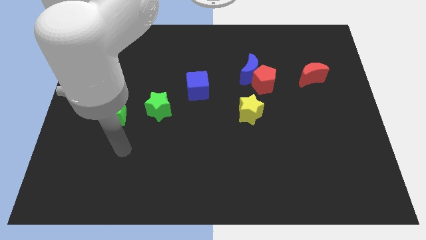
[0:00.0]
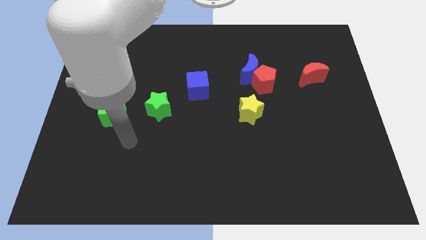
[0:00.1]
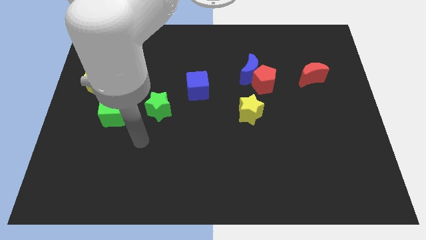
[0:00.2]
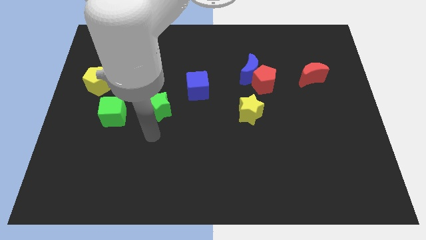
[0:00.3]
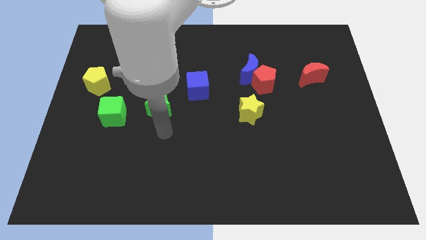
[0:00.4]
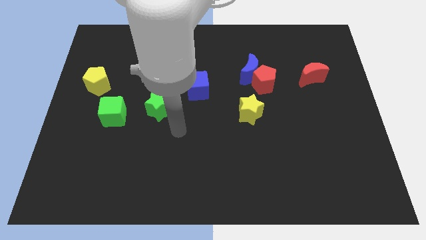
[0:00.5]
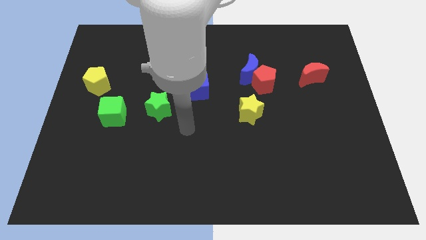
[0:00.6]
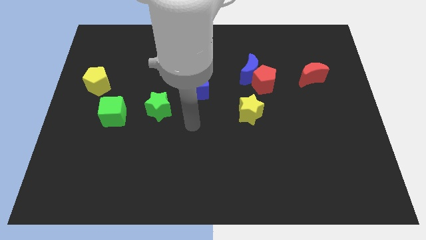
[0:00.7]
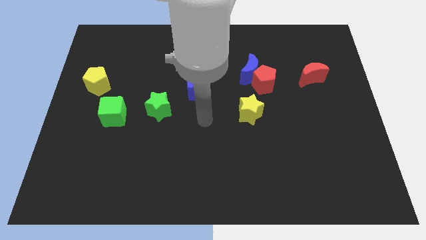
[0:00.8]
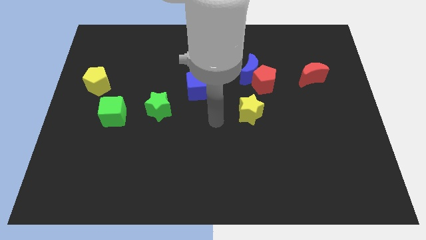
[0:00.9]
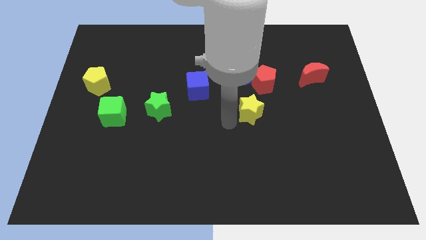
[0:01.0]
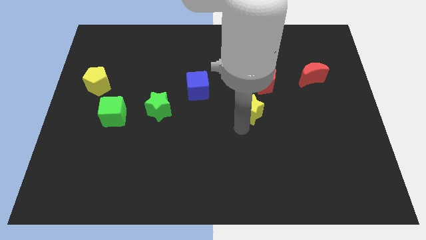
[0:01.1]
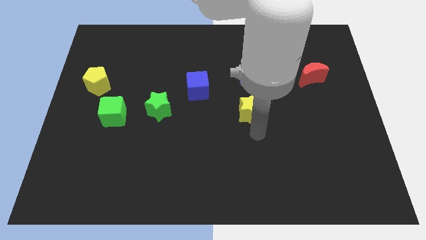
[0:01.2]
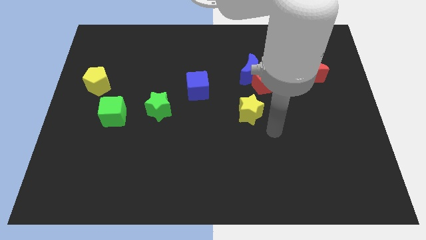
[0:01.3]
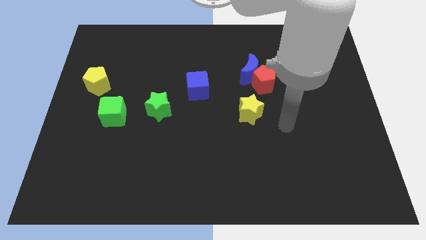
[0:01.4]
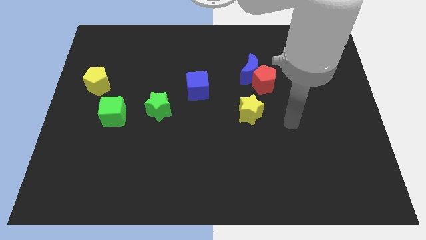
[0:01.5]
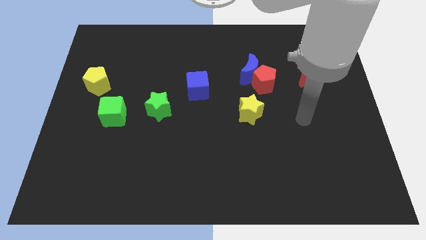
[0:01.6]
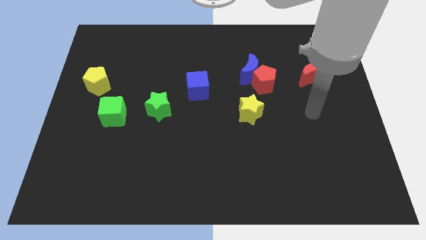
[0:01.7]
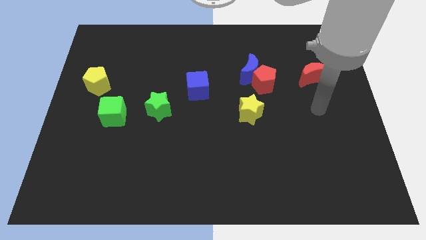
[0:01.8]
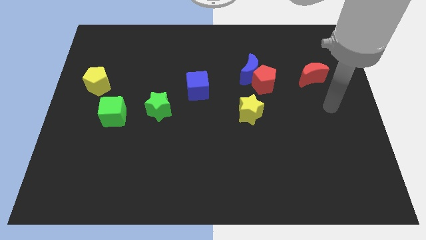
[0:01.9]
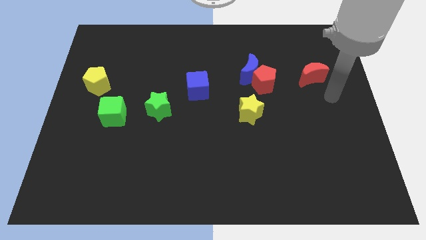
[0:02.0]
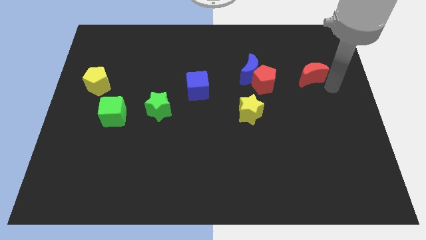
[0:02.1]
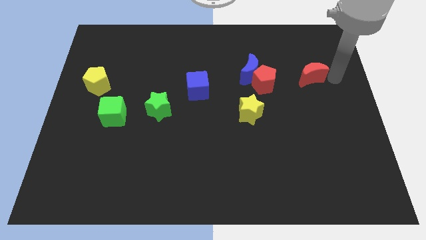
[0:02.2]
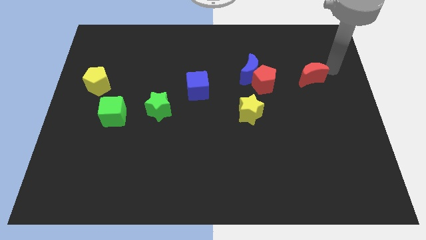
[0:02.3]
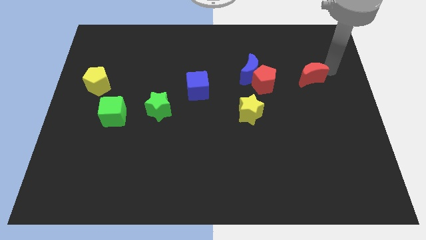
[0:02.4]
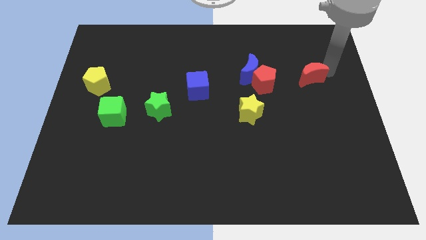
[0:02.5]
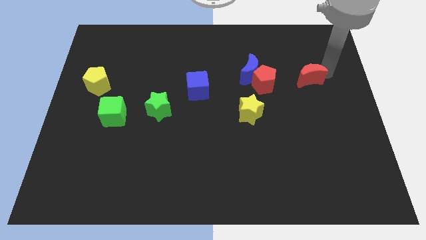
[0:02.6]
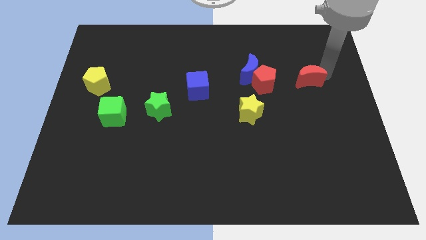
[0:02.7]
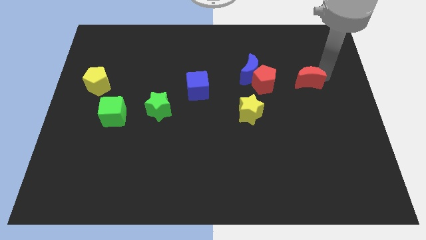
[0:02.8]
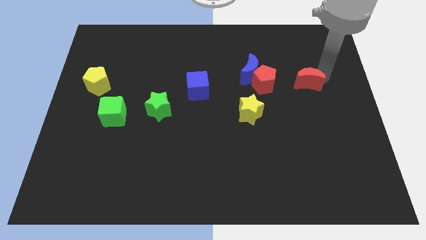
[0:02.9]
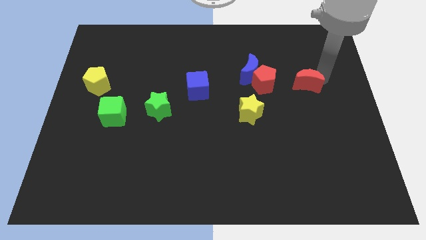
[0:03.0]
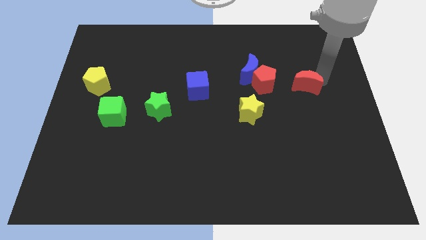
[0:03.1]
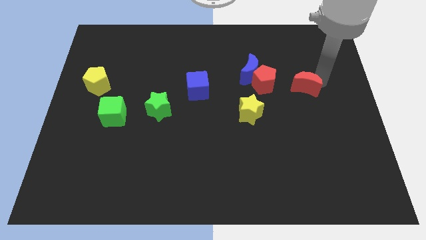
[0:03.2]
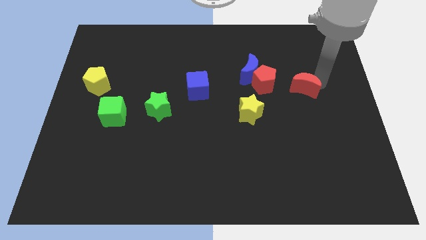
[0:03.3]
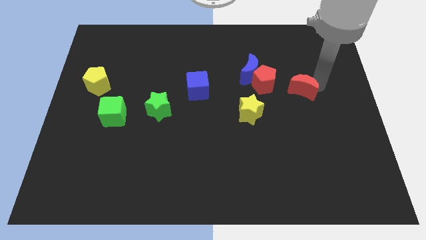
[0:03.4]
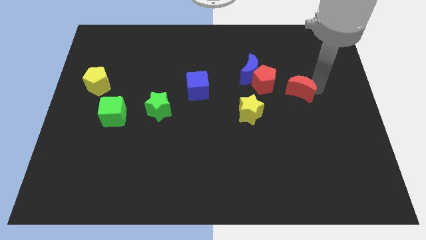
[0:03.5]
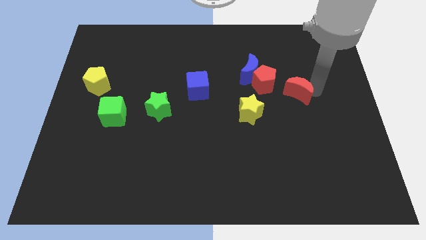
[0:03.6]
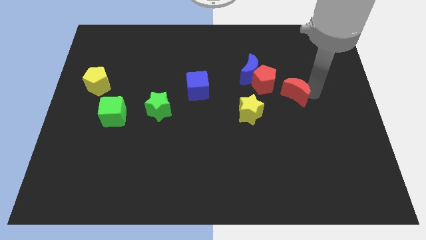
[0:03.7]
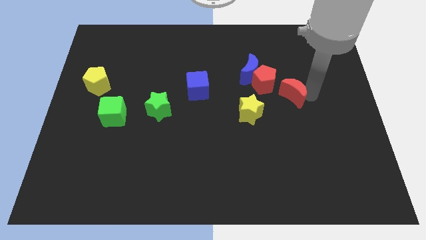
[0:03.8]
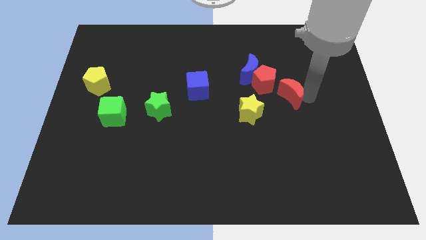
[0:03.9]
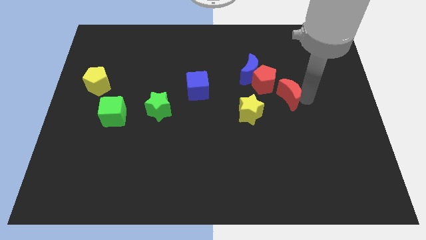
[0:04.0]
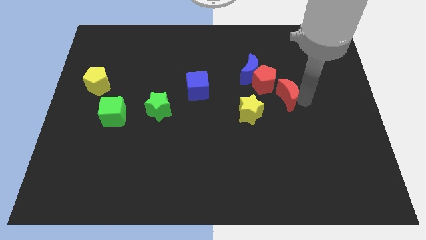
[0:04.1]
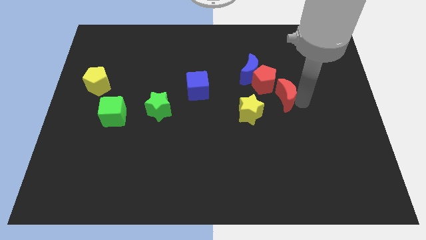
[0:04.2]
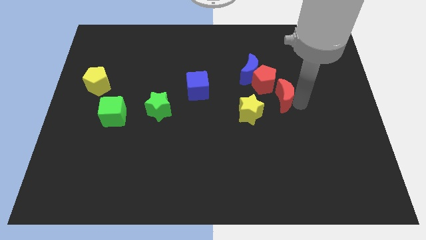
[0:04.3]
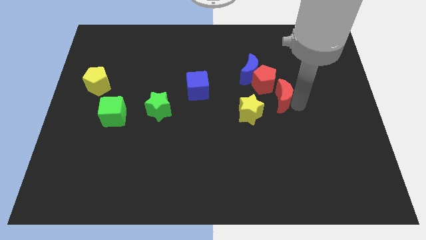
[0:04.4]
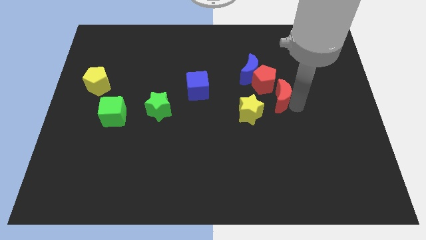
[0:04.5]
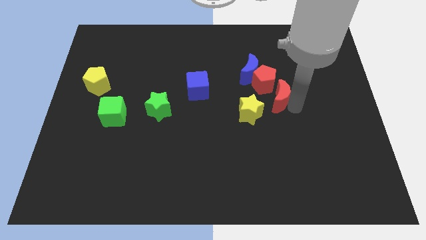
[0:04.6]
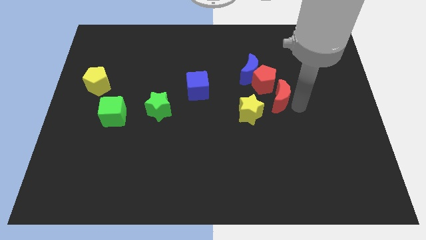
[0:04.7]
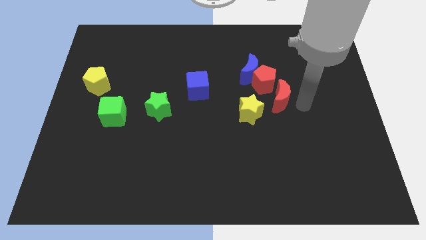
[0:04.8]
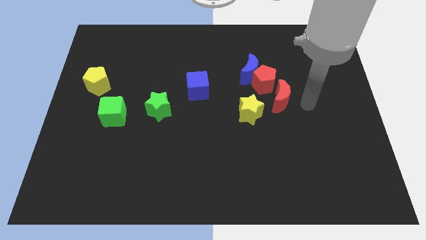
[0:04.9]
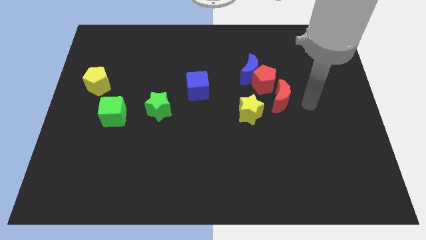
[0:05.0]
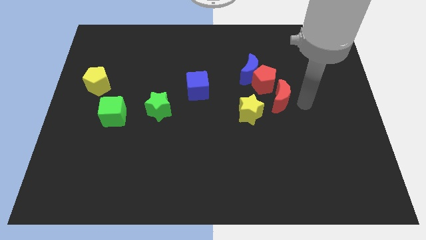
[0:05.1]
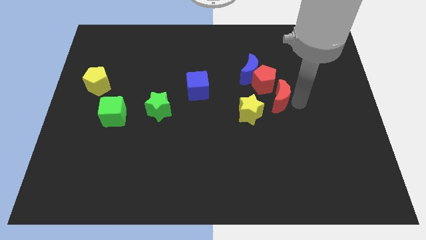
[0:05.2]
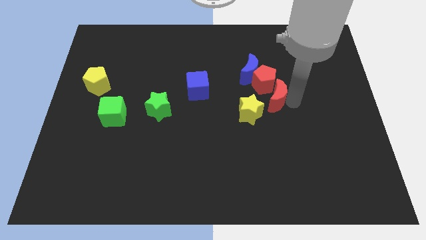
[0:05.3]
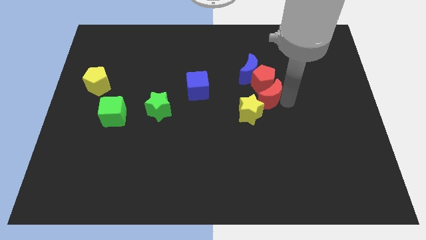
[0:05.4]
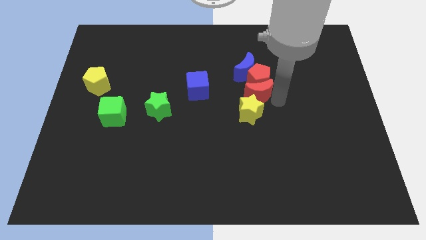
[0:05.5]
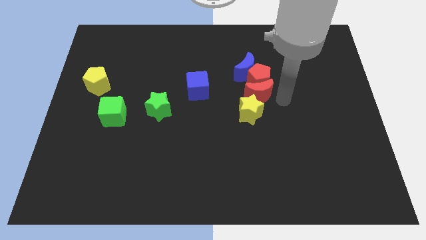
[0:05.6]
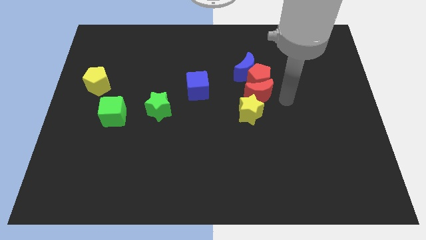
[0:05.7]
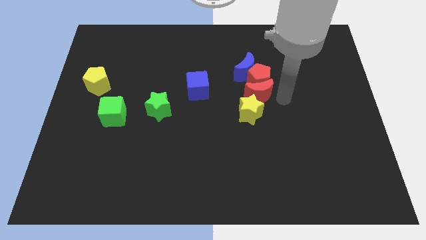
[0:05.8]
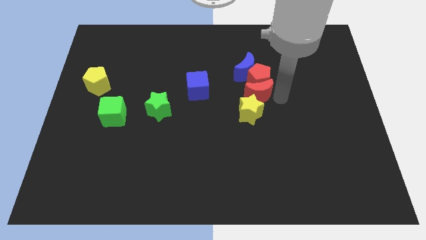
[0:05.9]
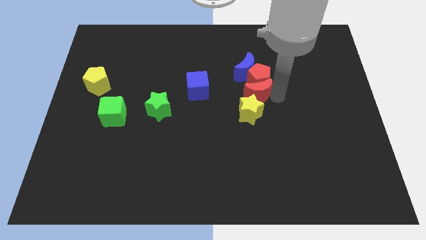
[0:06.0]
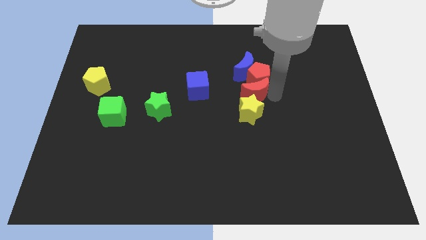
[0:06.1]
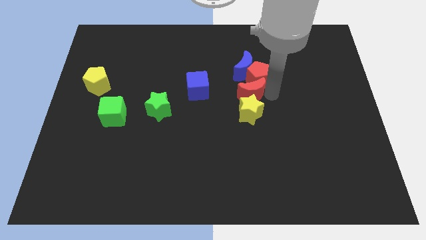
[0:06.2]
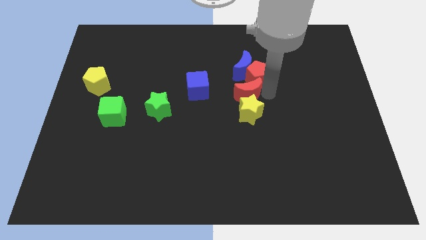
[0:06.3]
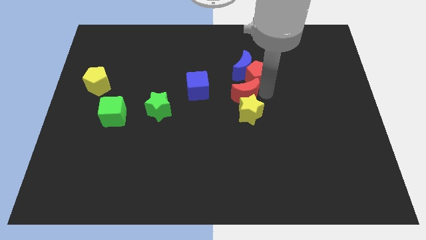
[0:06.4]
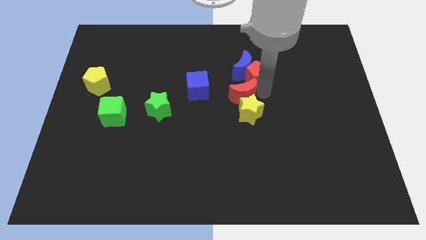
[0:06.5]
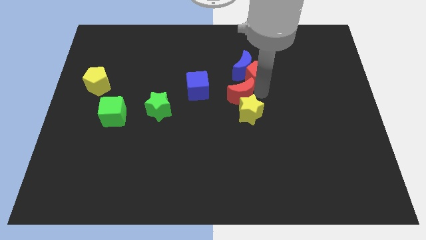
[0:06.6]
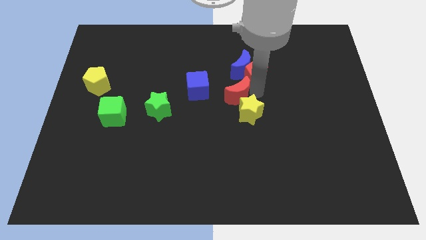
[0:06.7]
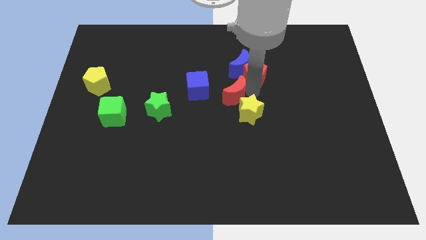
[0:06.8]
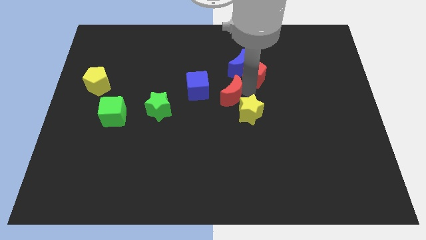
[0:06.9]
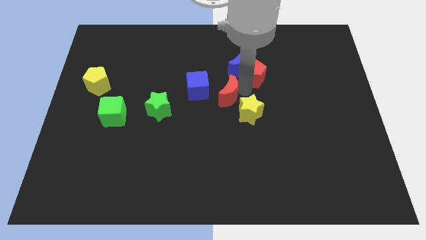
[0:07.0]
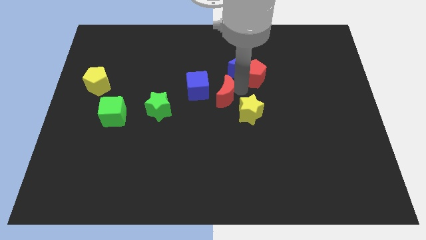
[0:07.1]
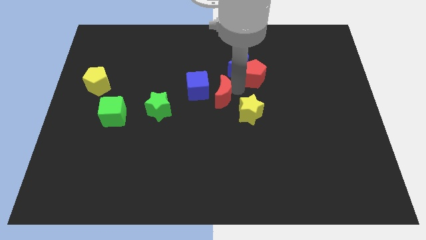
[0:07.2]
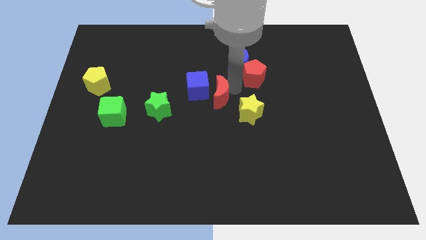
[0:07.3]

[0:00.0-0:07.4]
put the red moon next to the blue cube

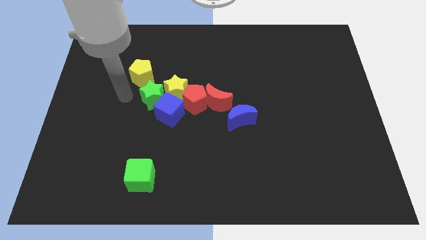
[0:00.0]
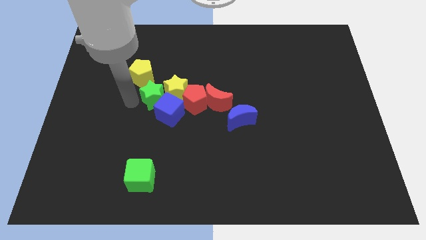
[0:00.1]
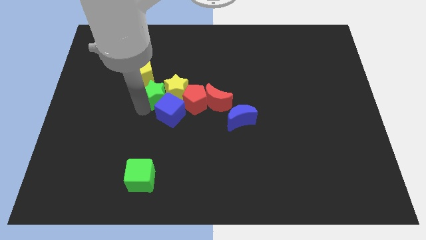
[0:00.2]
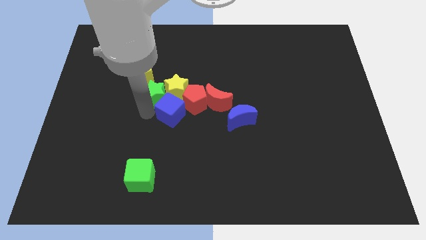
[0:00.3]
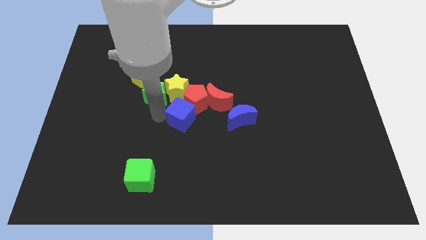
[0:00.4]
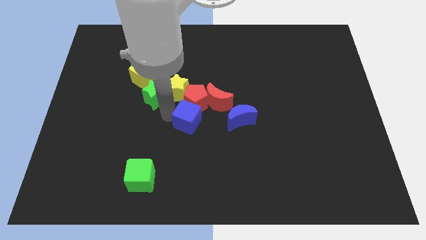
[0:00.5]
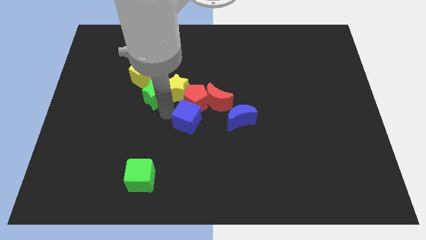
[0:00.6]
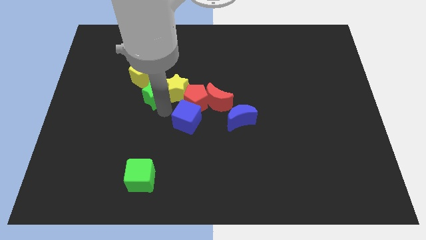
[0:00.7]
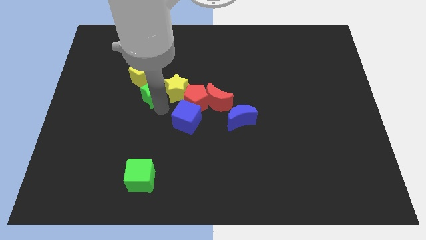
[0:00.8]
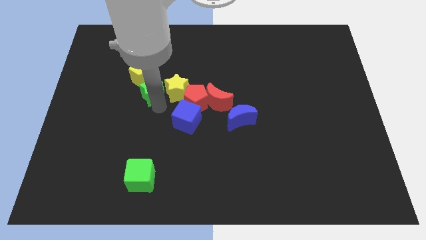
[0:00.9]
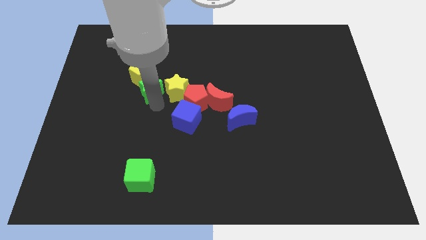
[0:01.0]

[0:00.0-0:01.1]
slide the green star towards the yellow pentagon
